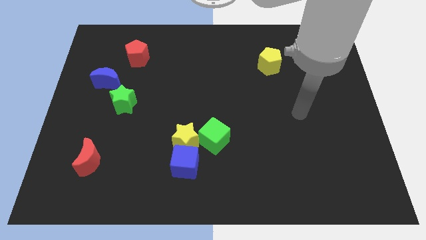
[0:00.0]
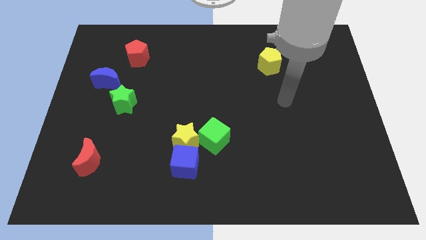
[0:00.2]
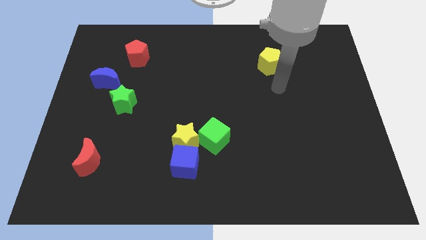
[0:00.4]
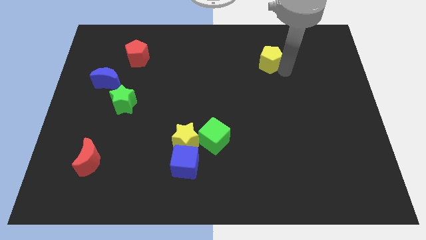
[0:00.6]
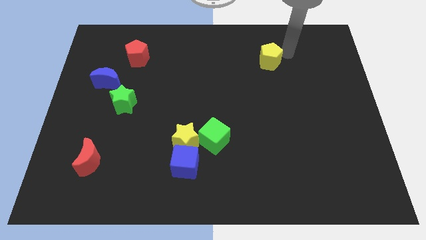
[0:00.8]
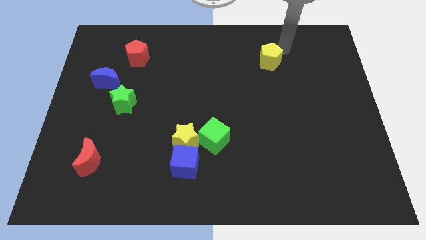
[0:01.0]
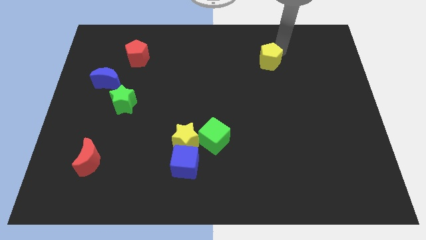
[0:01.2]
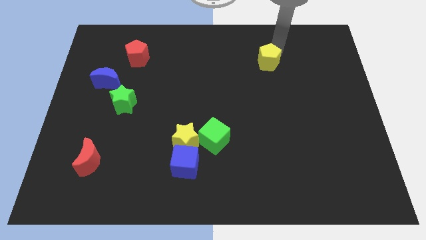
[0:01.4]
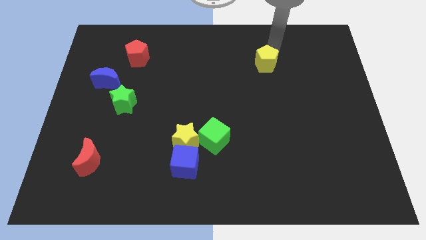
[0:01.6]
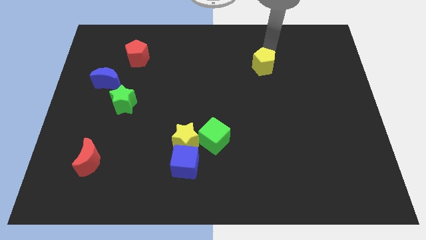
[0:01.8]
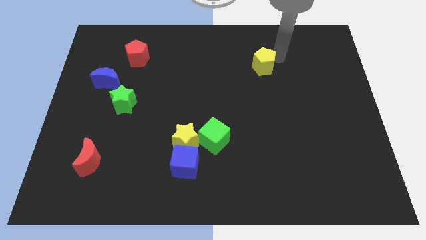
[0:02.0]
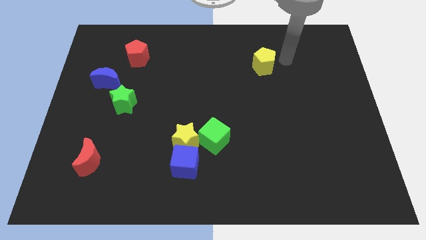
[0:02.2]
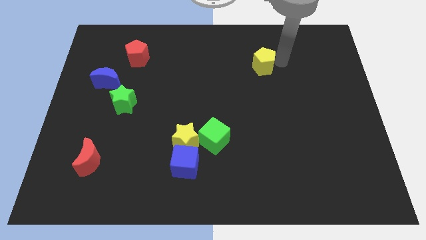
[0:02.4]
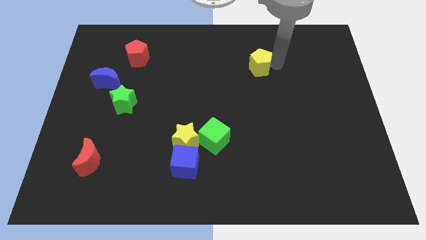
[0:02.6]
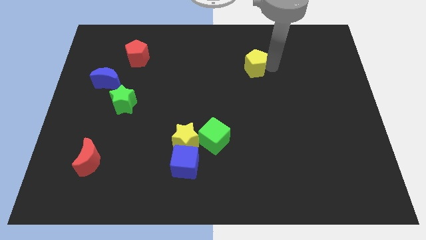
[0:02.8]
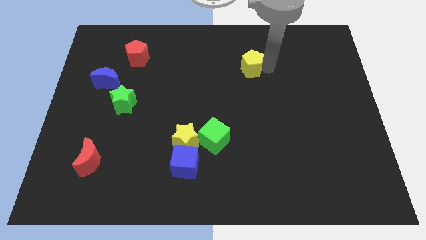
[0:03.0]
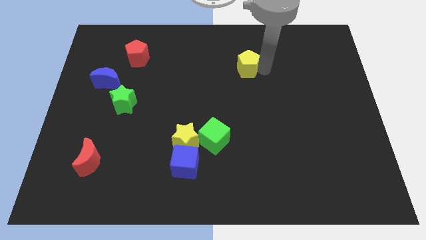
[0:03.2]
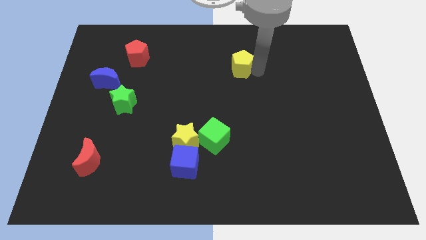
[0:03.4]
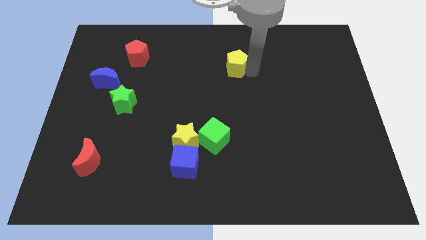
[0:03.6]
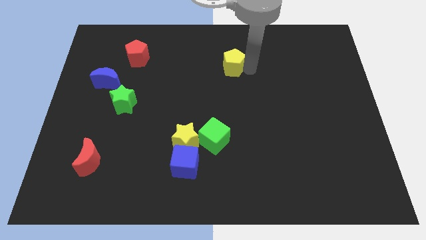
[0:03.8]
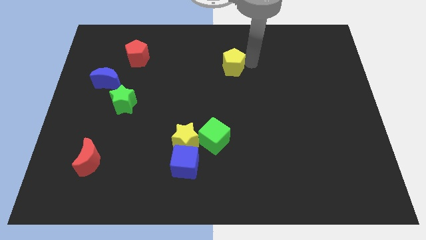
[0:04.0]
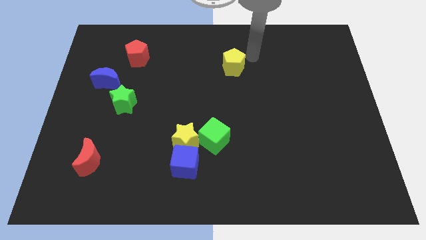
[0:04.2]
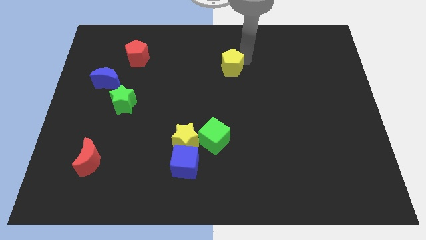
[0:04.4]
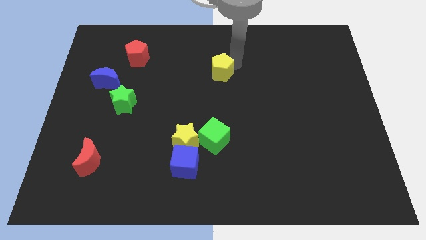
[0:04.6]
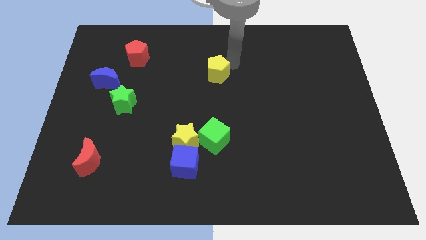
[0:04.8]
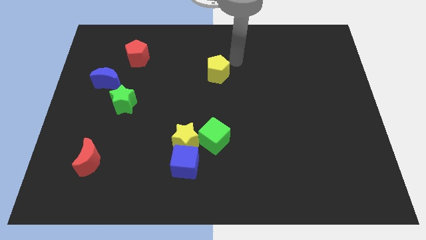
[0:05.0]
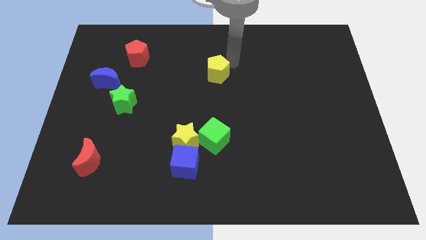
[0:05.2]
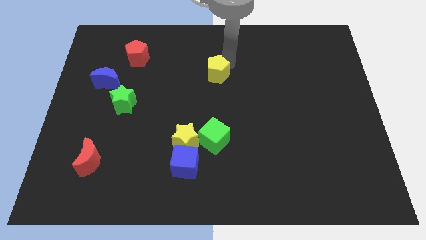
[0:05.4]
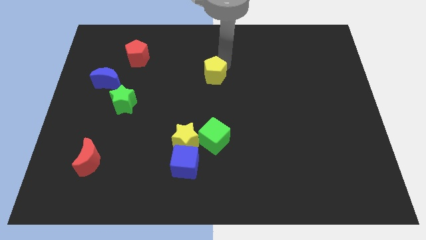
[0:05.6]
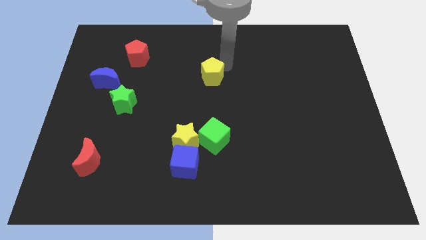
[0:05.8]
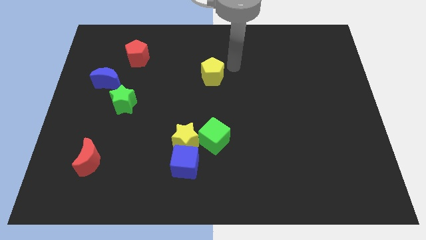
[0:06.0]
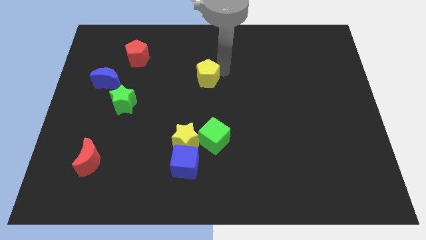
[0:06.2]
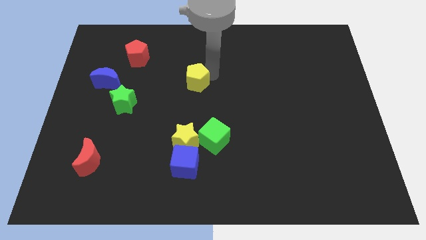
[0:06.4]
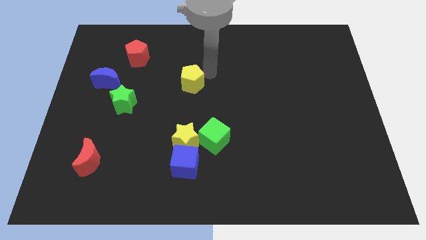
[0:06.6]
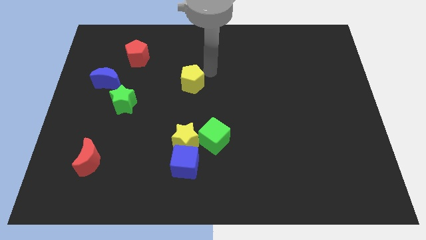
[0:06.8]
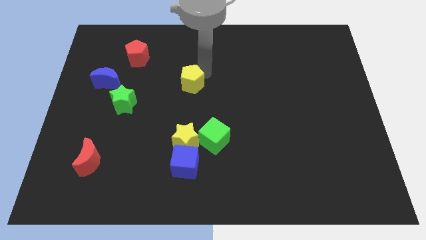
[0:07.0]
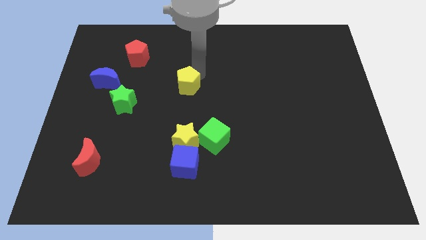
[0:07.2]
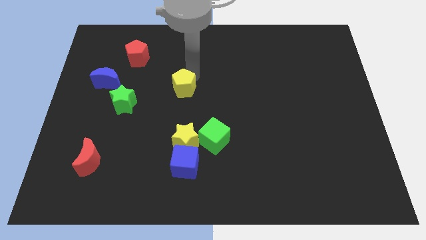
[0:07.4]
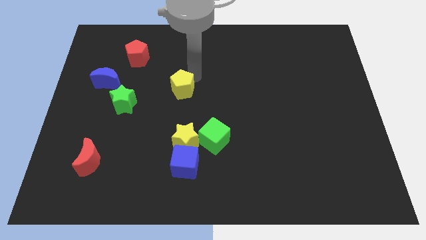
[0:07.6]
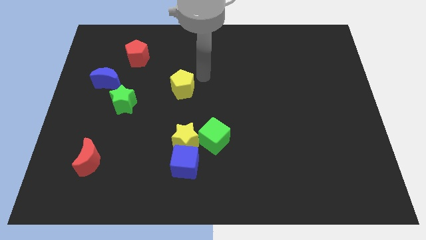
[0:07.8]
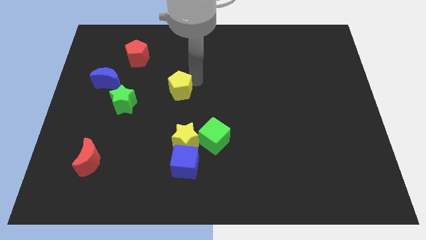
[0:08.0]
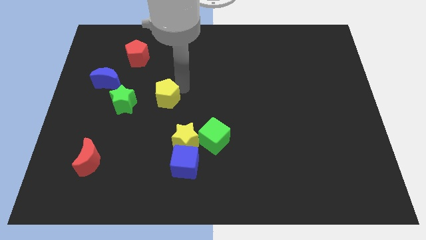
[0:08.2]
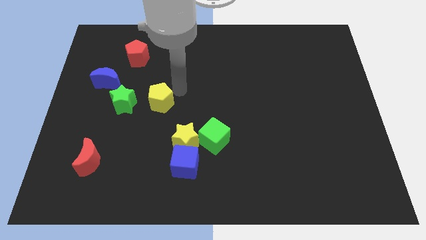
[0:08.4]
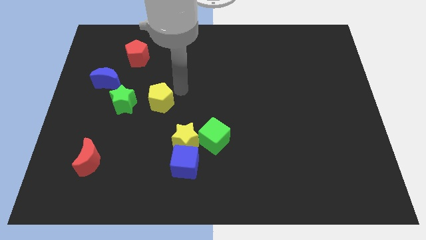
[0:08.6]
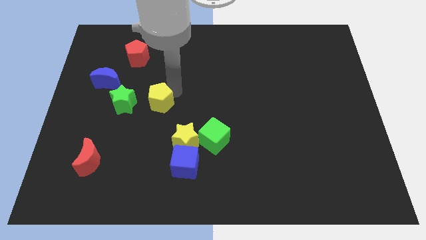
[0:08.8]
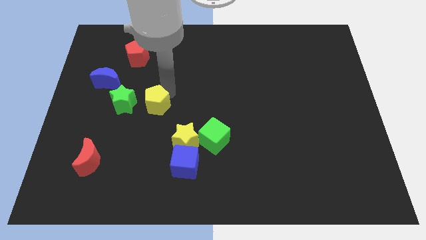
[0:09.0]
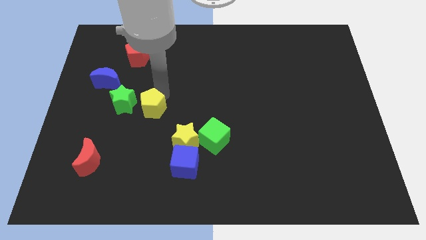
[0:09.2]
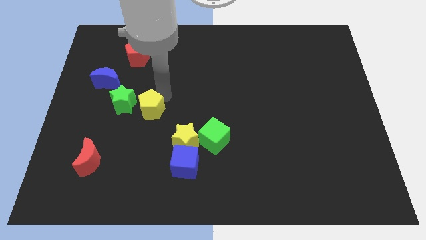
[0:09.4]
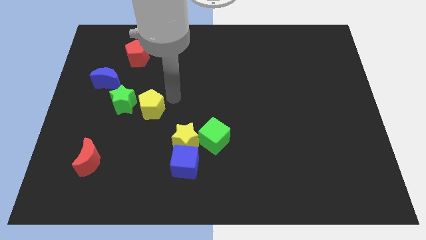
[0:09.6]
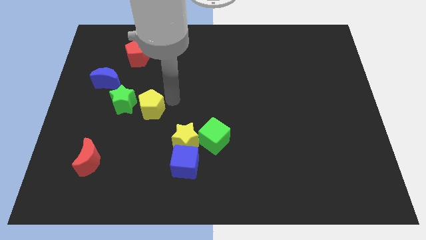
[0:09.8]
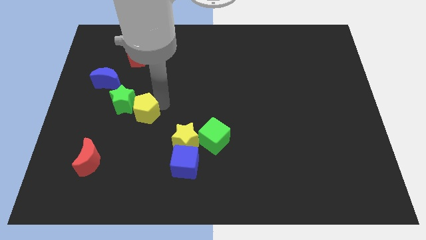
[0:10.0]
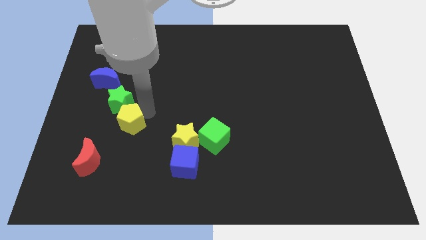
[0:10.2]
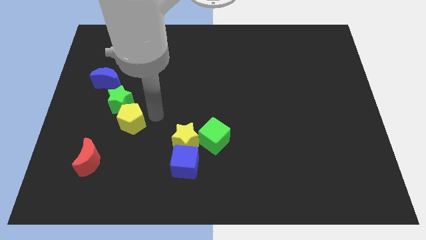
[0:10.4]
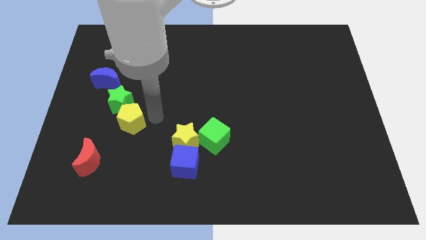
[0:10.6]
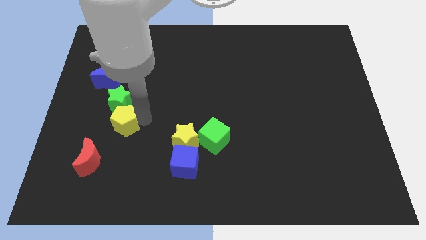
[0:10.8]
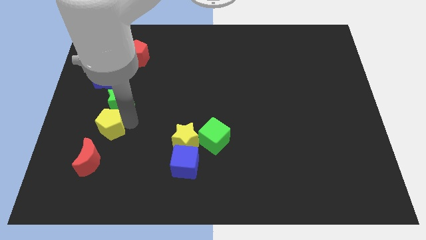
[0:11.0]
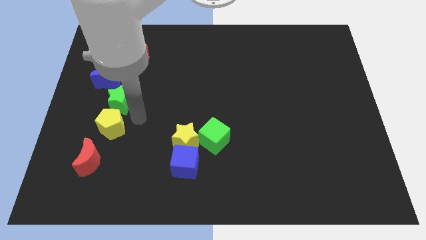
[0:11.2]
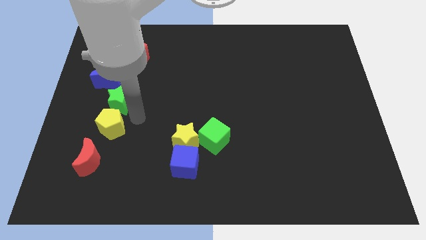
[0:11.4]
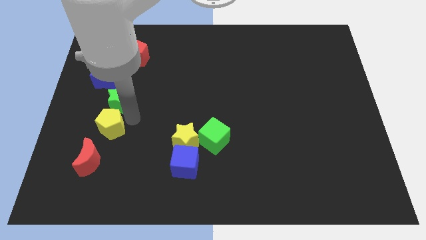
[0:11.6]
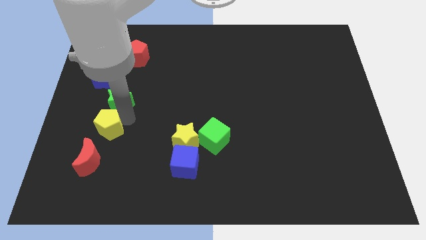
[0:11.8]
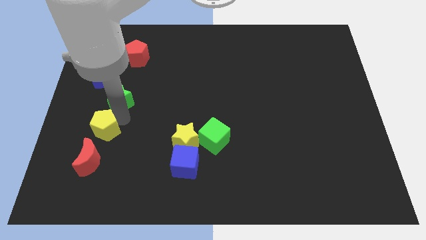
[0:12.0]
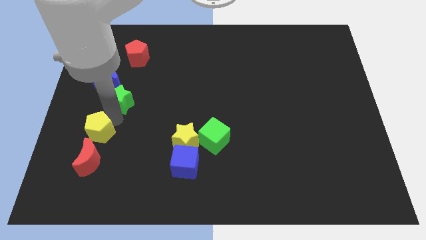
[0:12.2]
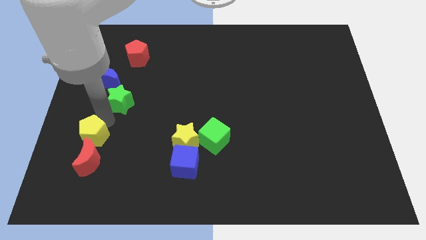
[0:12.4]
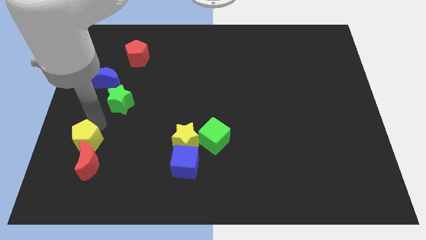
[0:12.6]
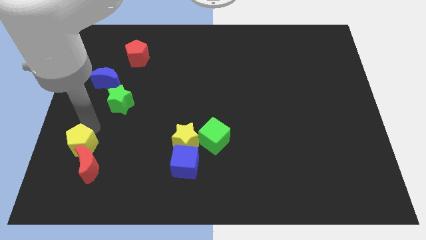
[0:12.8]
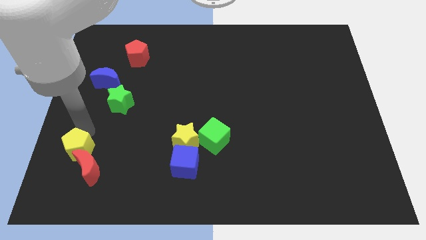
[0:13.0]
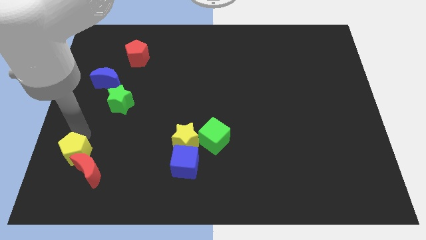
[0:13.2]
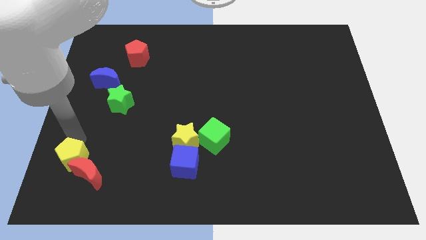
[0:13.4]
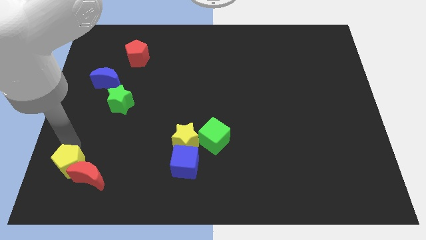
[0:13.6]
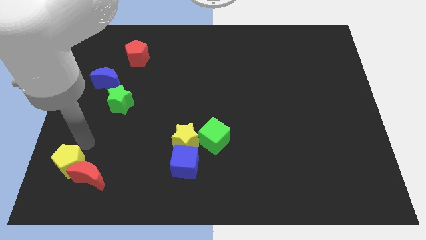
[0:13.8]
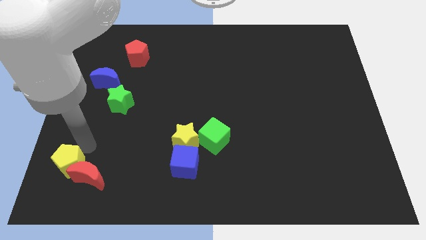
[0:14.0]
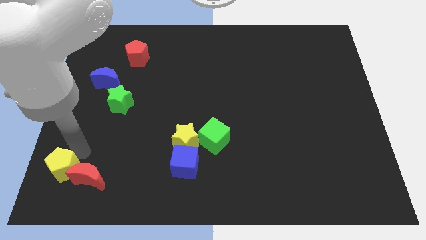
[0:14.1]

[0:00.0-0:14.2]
move the yellow pentagon to the bottom left corner
